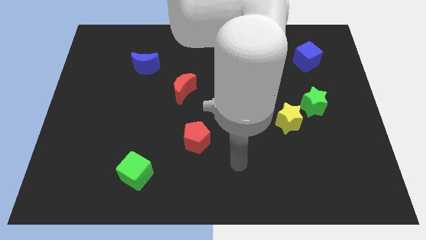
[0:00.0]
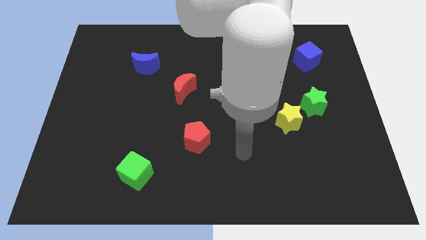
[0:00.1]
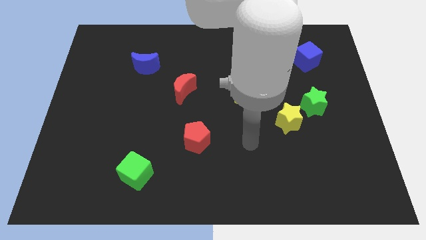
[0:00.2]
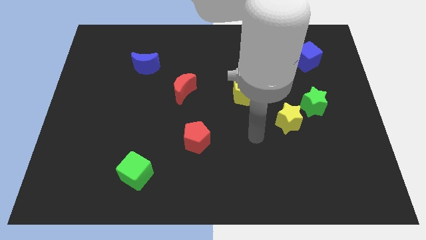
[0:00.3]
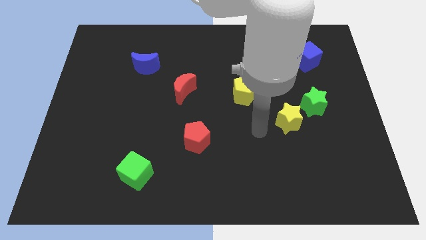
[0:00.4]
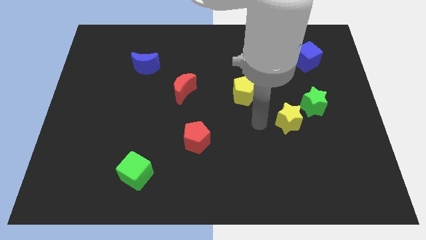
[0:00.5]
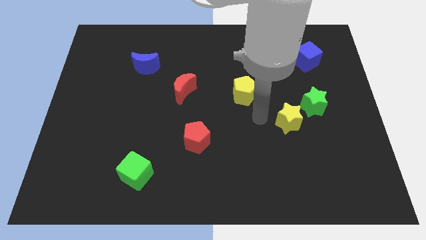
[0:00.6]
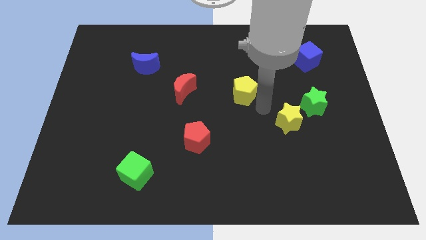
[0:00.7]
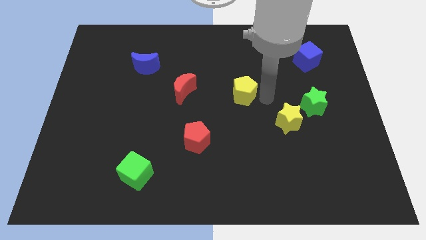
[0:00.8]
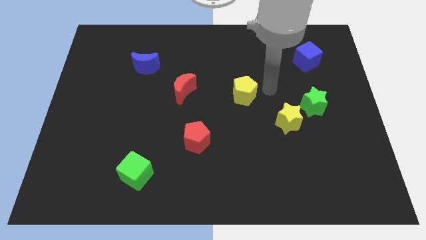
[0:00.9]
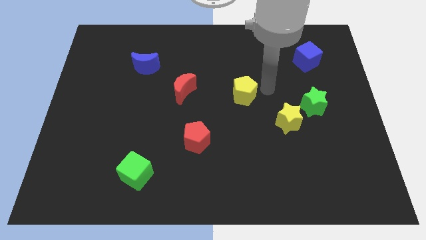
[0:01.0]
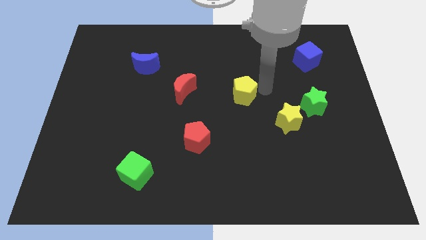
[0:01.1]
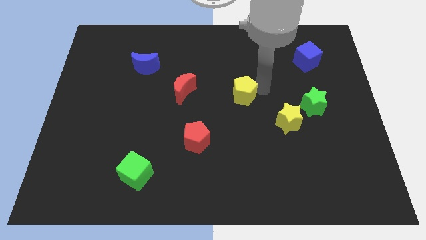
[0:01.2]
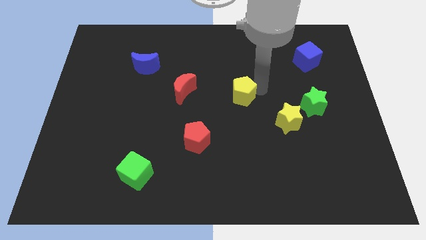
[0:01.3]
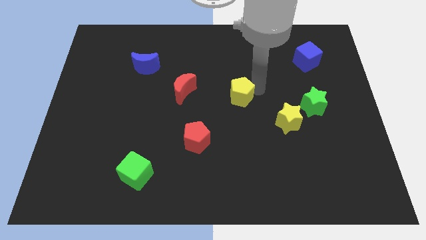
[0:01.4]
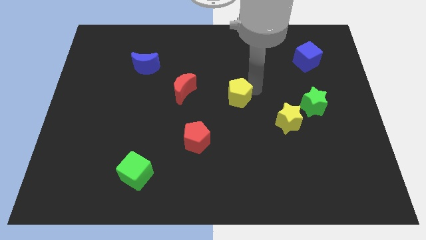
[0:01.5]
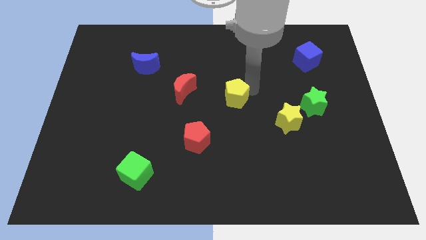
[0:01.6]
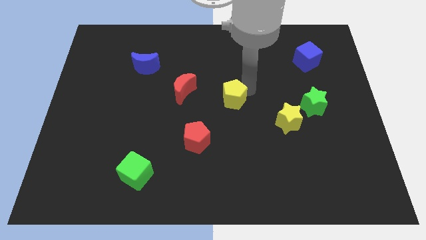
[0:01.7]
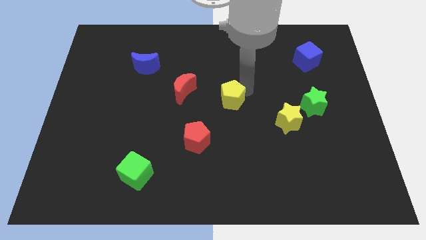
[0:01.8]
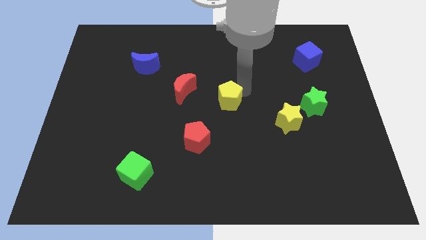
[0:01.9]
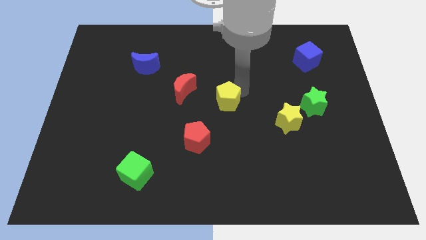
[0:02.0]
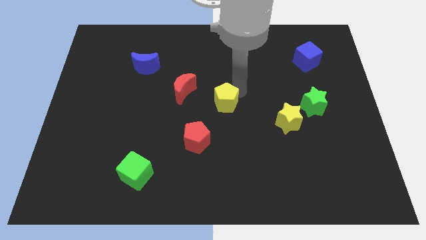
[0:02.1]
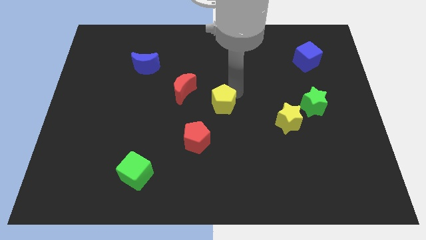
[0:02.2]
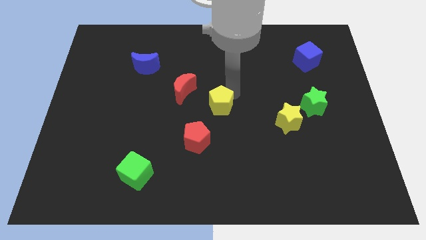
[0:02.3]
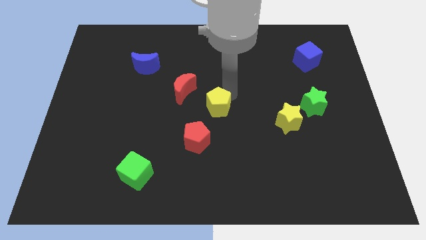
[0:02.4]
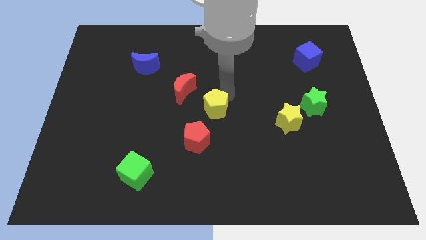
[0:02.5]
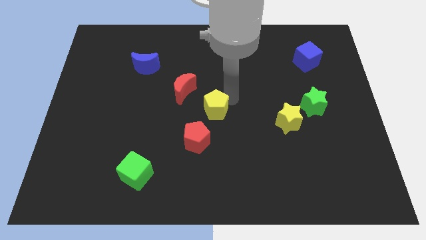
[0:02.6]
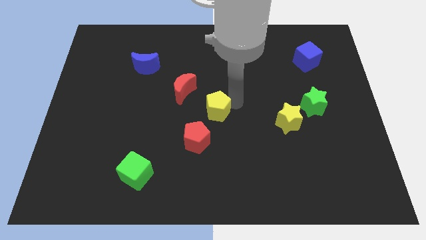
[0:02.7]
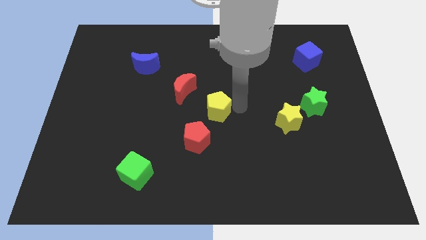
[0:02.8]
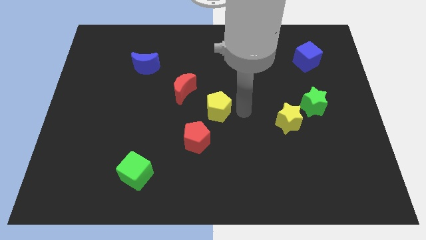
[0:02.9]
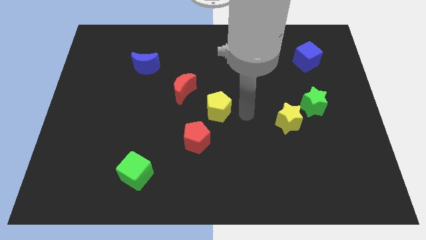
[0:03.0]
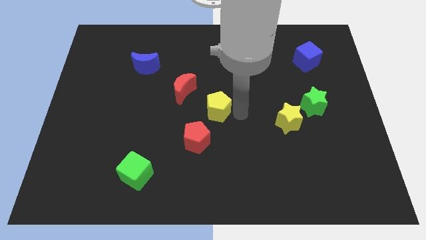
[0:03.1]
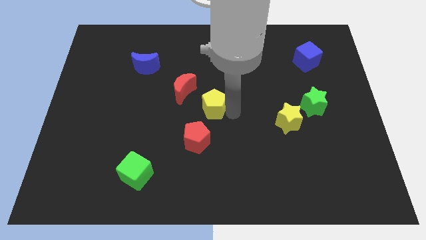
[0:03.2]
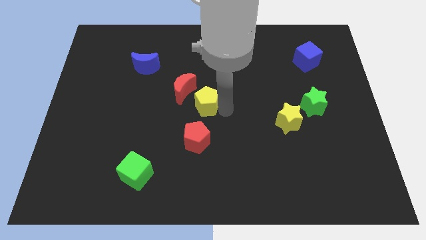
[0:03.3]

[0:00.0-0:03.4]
slide the yellow pentagon to the left a bit

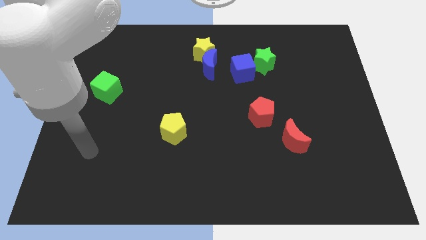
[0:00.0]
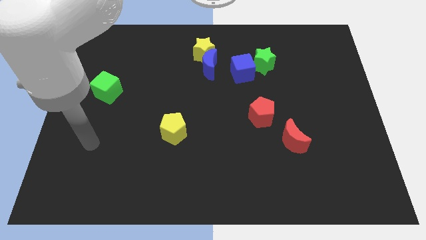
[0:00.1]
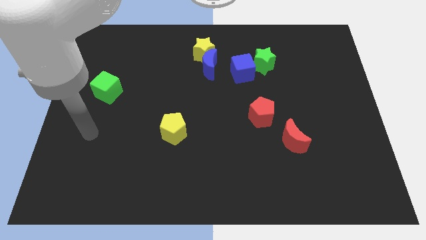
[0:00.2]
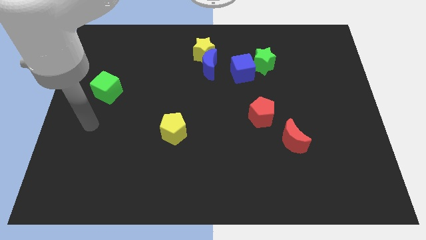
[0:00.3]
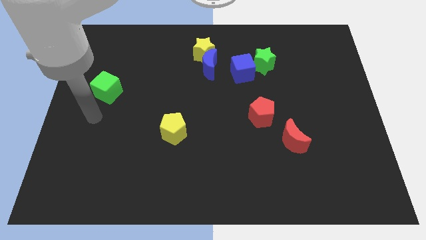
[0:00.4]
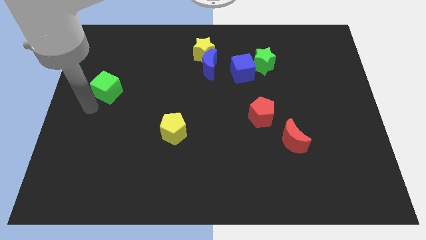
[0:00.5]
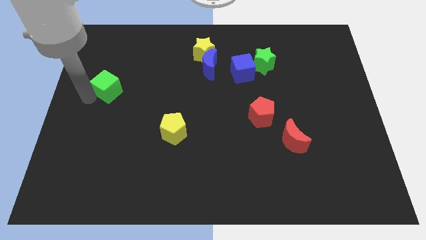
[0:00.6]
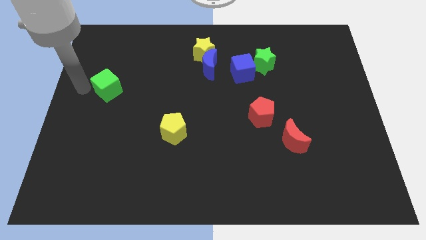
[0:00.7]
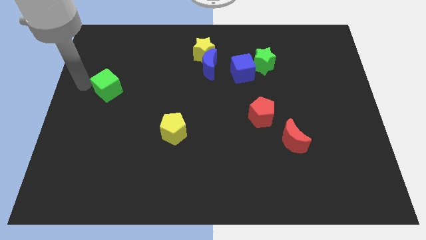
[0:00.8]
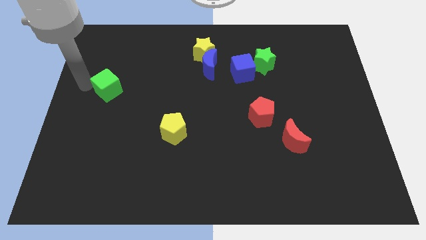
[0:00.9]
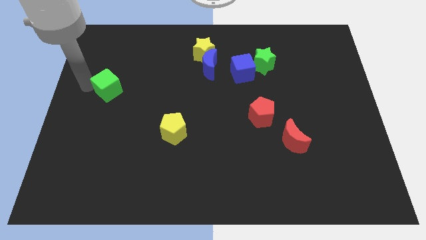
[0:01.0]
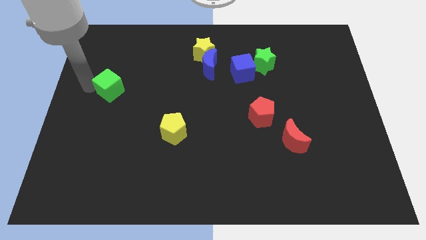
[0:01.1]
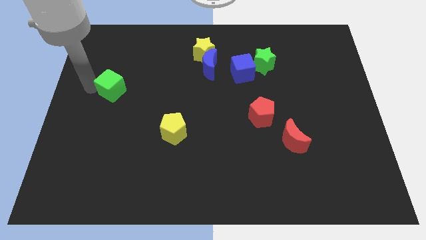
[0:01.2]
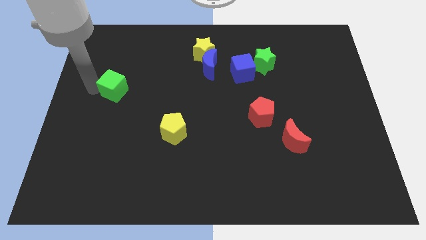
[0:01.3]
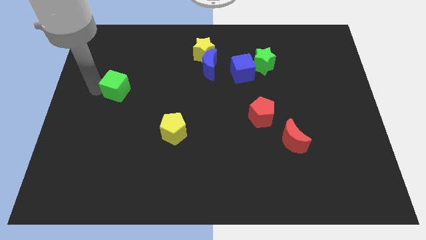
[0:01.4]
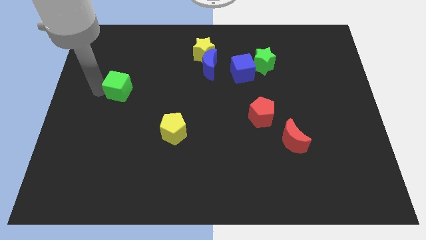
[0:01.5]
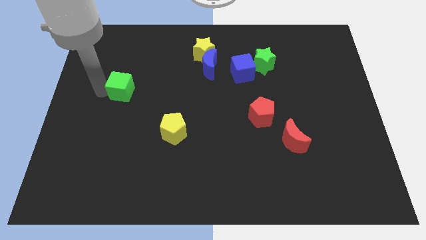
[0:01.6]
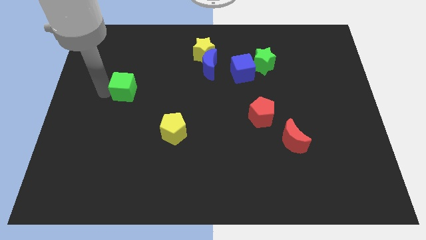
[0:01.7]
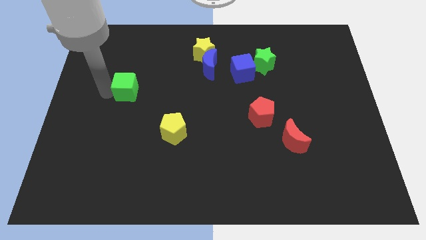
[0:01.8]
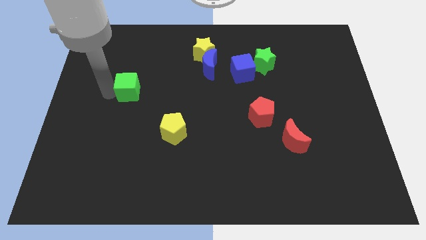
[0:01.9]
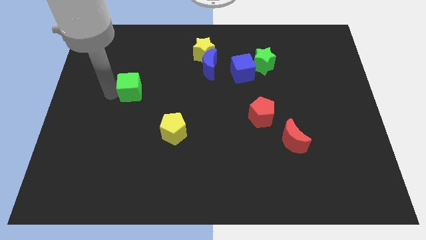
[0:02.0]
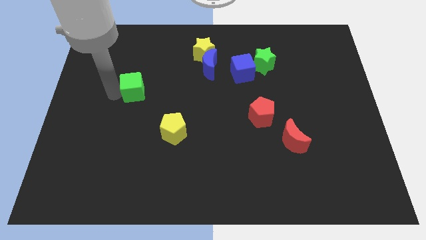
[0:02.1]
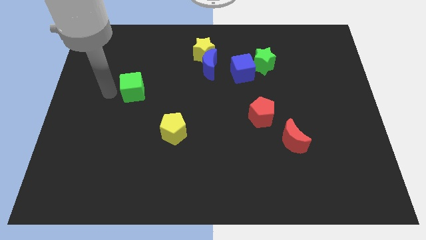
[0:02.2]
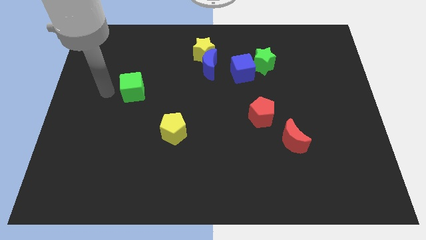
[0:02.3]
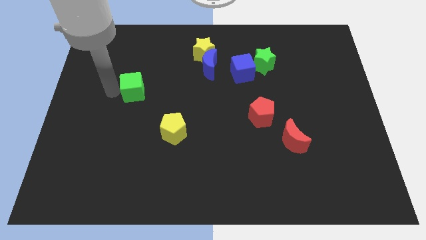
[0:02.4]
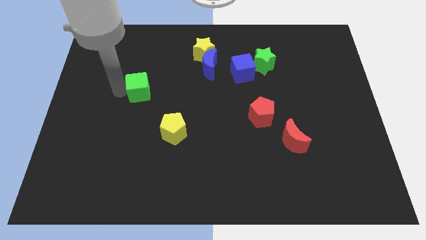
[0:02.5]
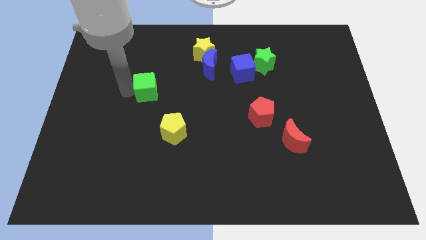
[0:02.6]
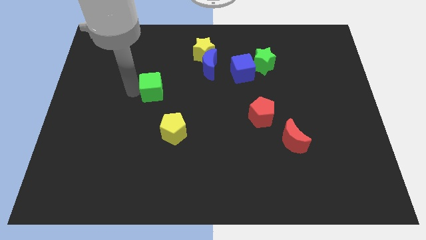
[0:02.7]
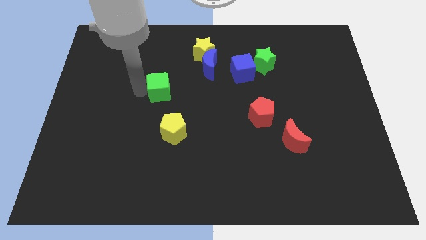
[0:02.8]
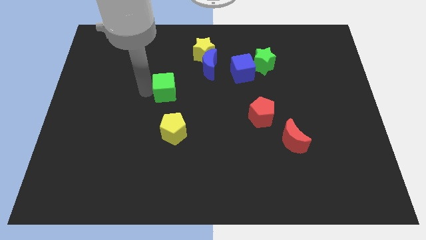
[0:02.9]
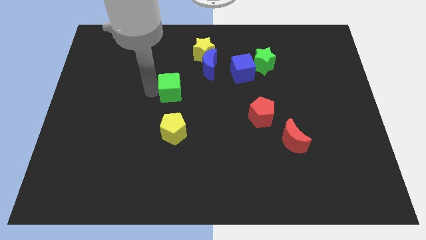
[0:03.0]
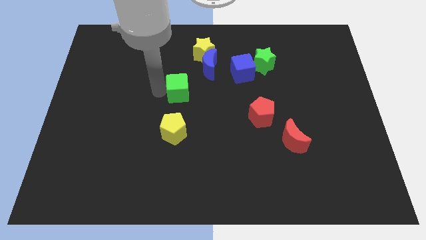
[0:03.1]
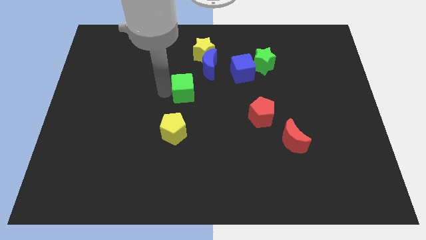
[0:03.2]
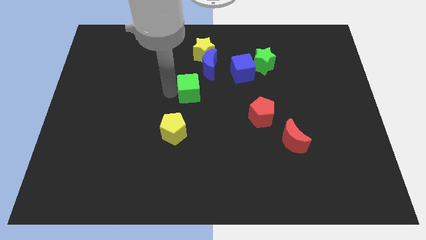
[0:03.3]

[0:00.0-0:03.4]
slide the green cube right

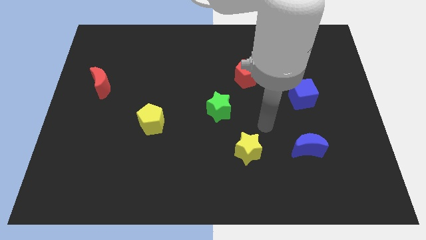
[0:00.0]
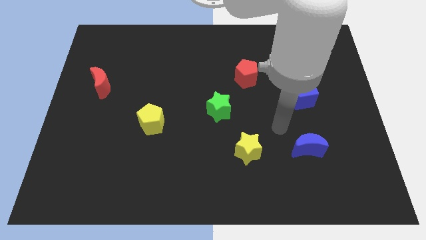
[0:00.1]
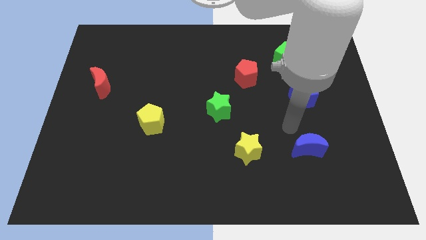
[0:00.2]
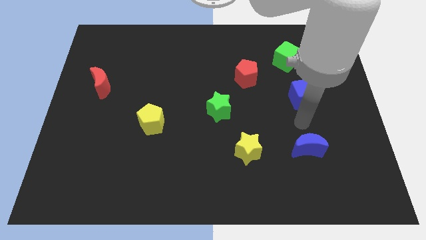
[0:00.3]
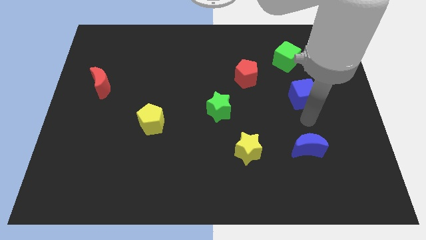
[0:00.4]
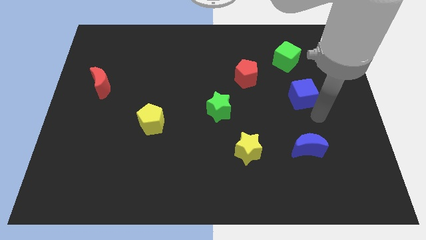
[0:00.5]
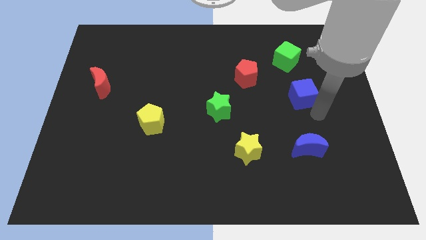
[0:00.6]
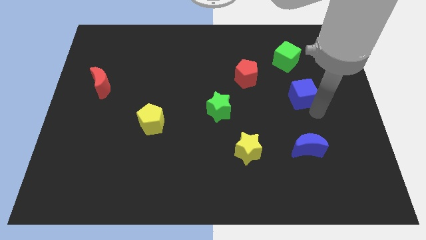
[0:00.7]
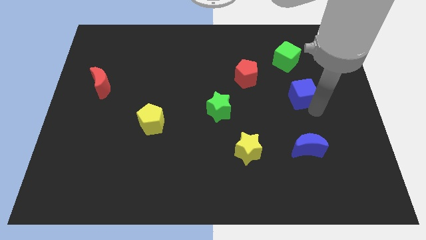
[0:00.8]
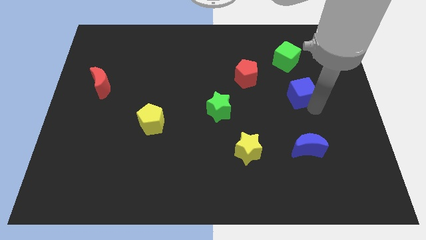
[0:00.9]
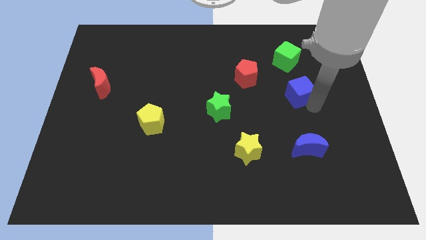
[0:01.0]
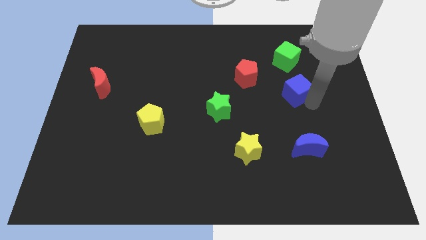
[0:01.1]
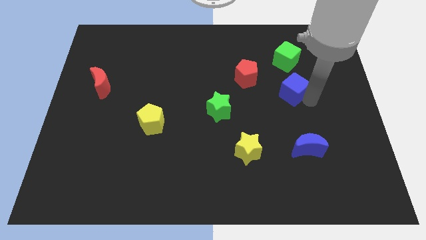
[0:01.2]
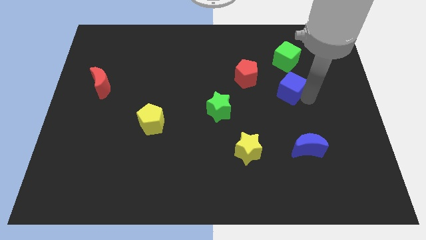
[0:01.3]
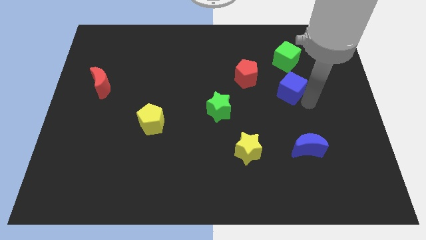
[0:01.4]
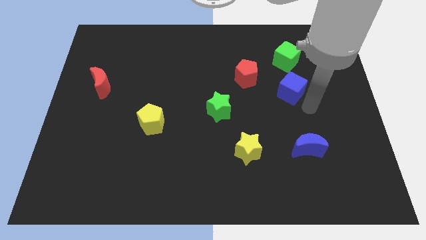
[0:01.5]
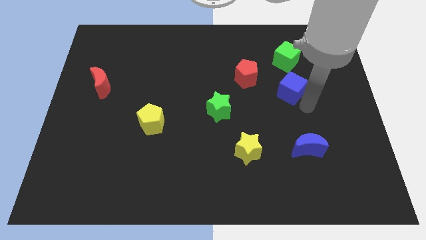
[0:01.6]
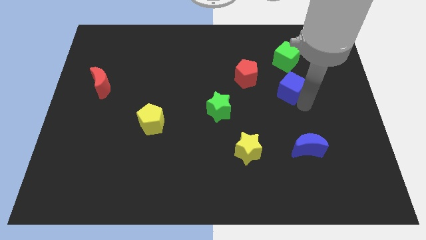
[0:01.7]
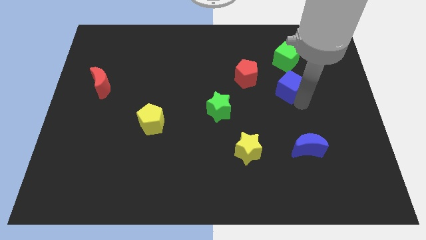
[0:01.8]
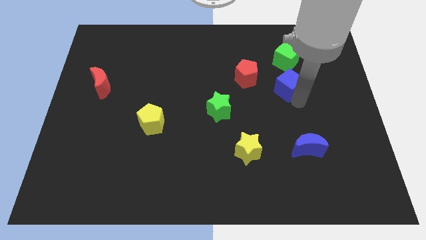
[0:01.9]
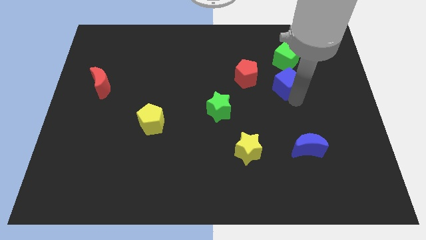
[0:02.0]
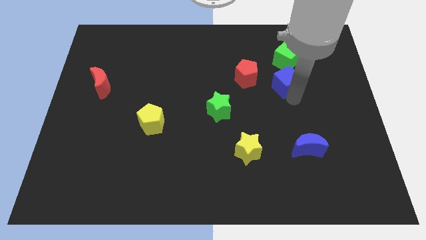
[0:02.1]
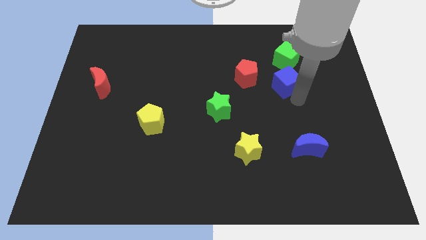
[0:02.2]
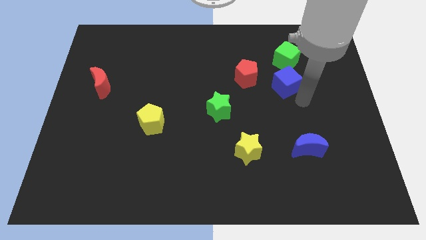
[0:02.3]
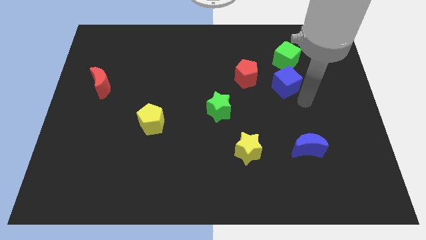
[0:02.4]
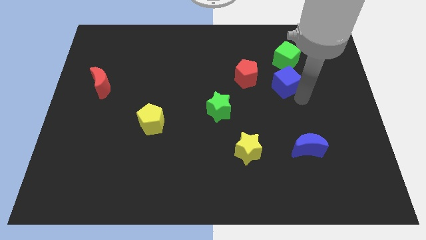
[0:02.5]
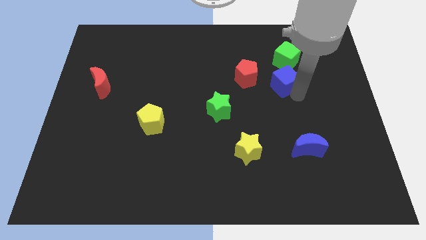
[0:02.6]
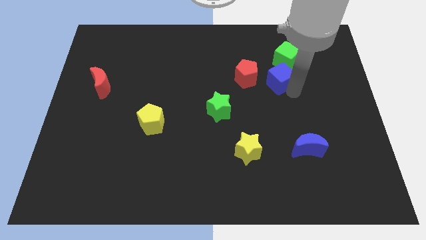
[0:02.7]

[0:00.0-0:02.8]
move the blue cube a little upwards and to the left
